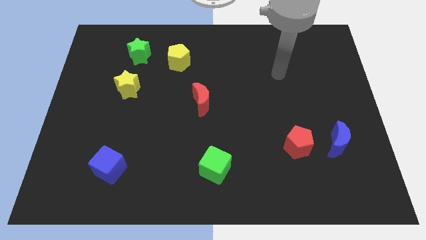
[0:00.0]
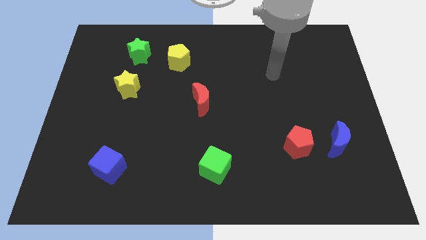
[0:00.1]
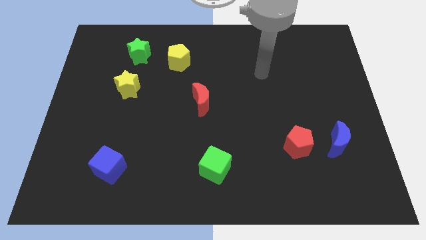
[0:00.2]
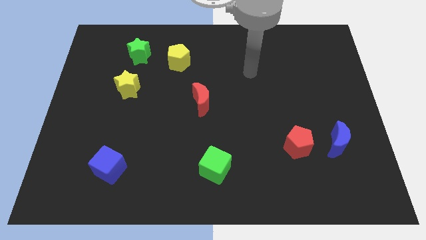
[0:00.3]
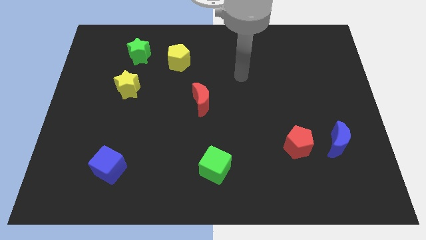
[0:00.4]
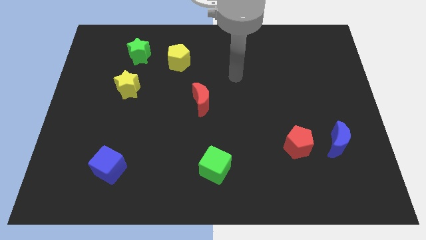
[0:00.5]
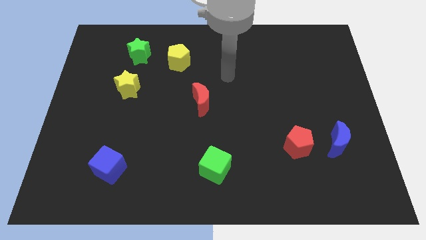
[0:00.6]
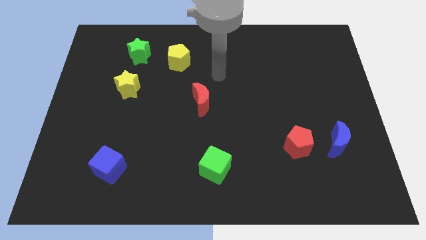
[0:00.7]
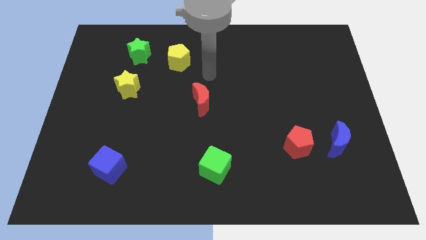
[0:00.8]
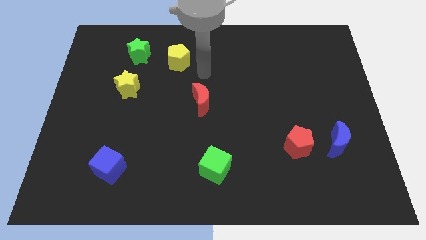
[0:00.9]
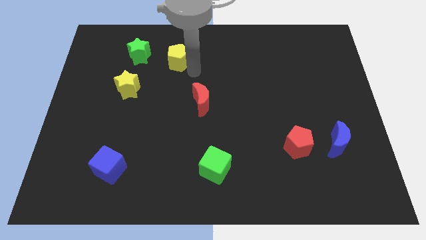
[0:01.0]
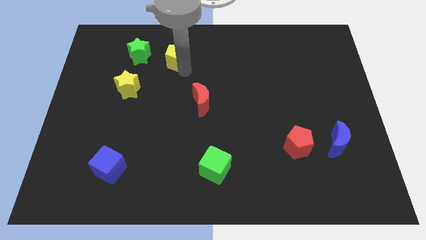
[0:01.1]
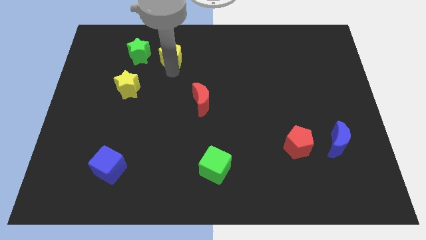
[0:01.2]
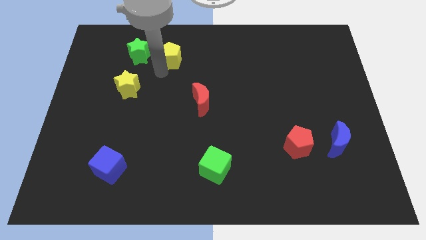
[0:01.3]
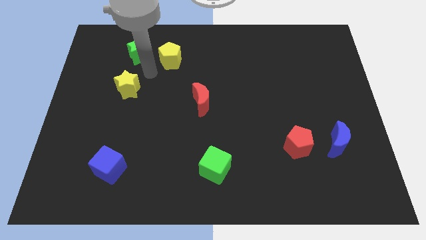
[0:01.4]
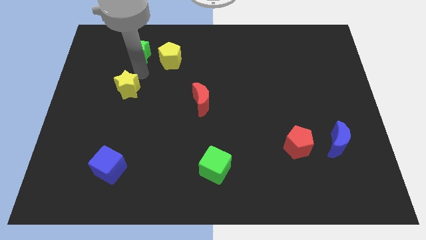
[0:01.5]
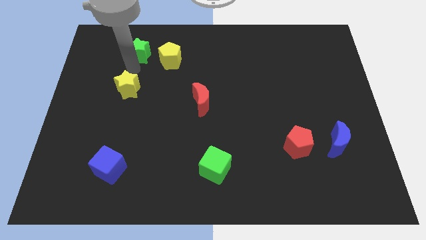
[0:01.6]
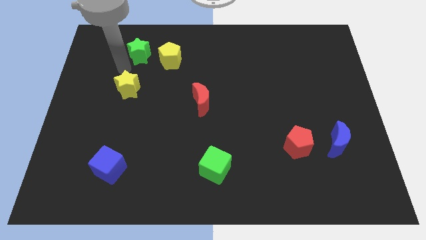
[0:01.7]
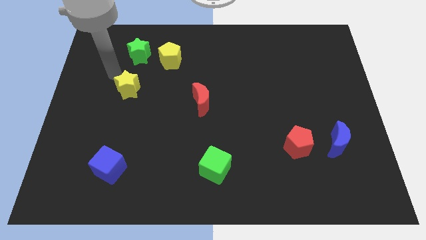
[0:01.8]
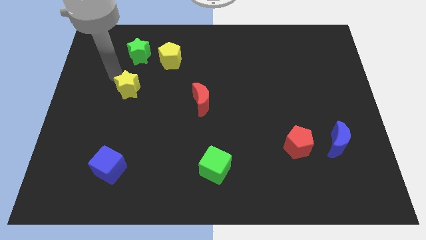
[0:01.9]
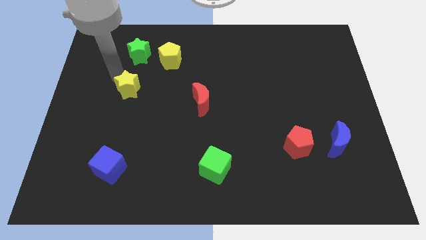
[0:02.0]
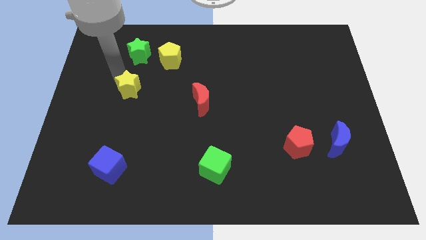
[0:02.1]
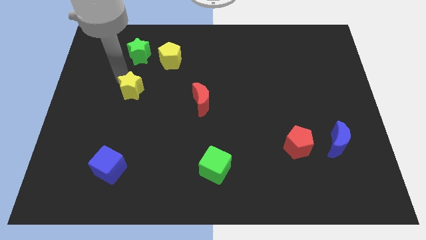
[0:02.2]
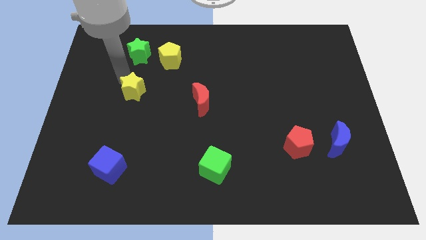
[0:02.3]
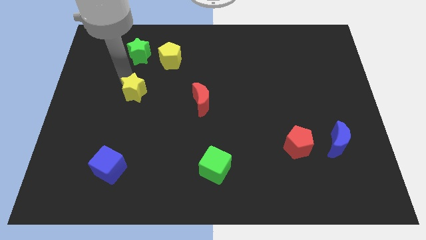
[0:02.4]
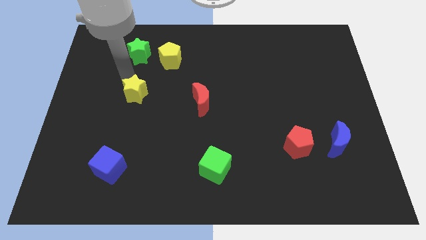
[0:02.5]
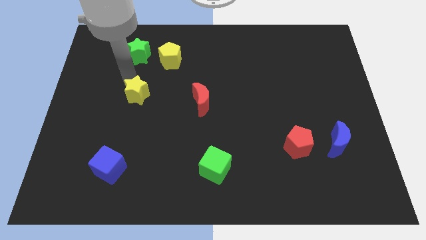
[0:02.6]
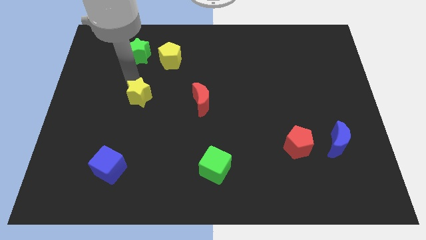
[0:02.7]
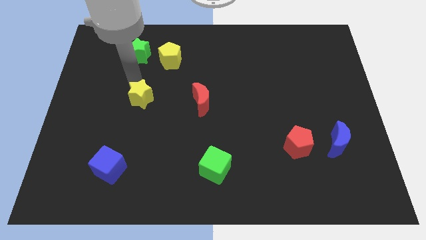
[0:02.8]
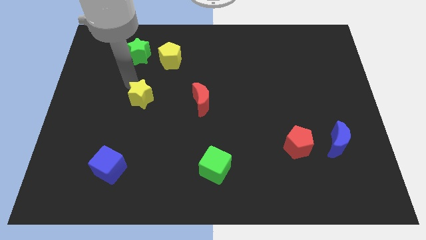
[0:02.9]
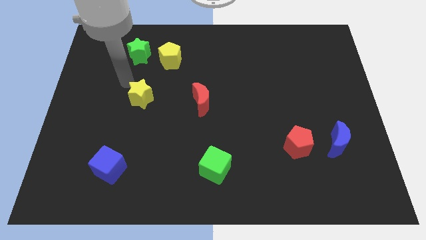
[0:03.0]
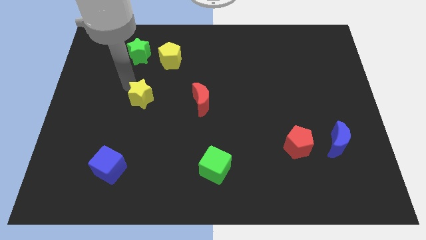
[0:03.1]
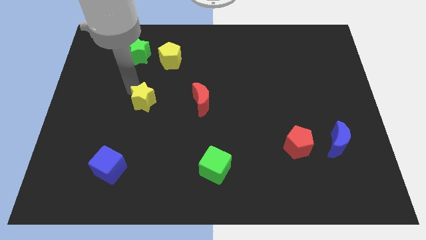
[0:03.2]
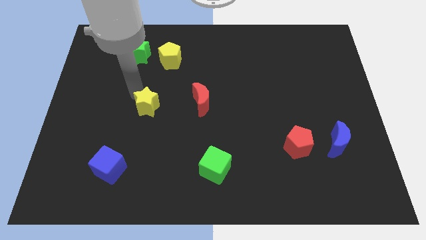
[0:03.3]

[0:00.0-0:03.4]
slightly push the yellow star down and then to the right

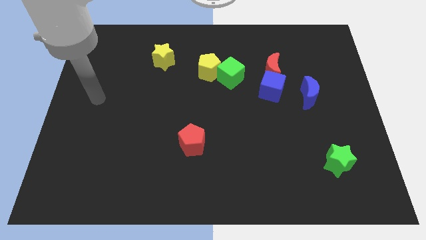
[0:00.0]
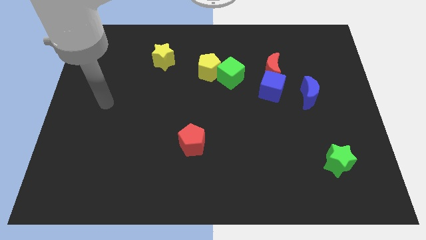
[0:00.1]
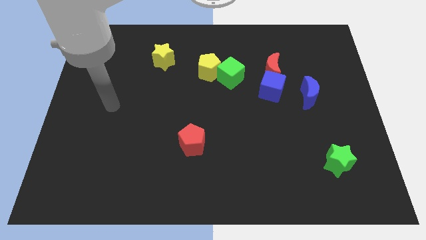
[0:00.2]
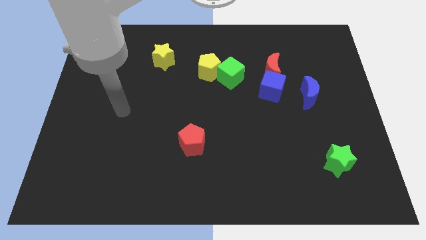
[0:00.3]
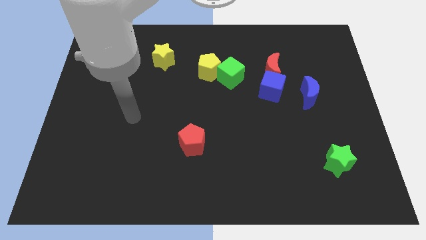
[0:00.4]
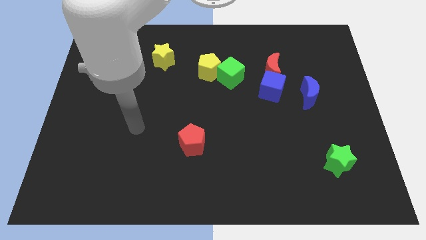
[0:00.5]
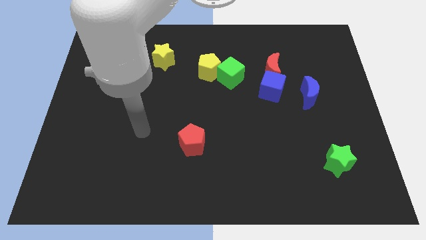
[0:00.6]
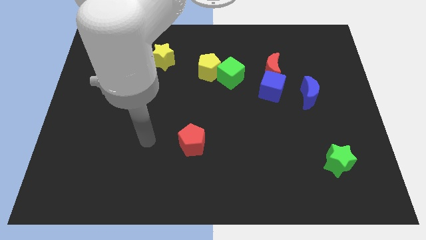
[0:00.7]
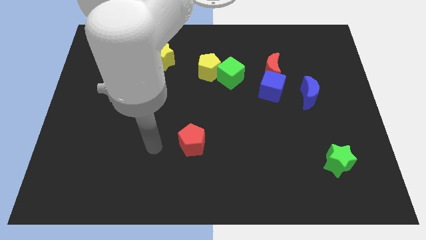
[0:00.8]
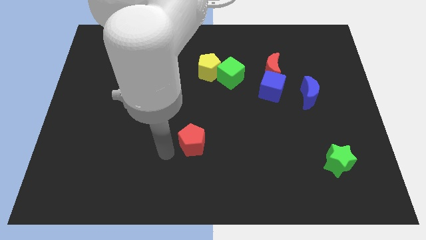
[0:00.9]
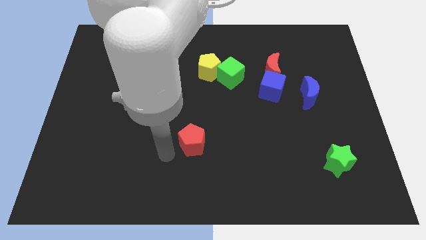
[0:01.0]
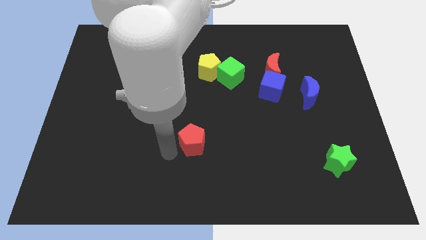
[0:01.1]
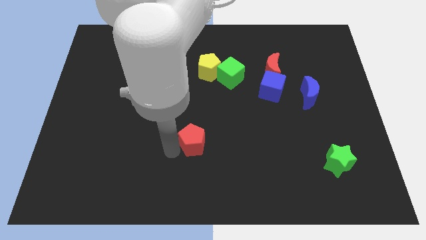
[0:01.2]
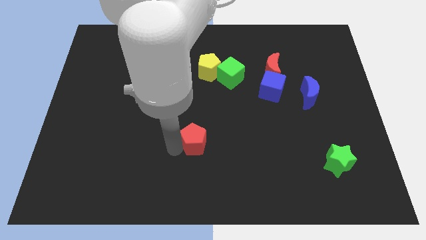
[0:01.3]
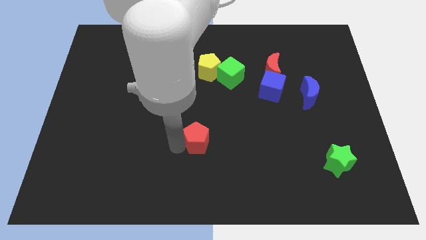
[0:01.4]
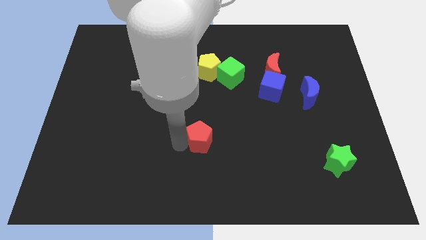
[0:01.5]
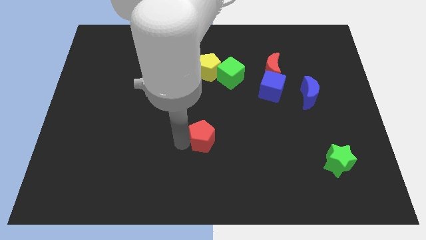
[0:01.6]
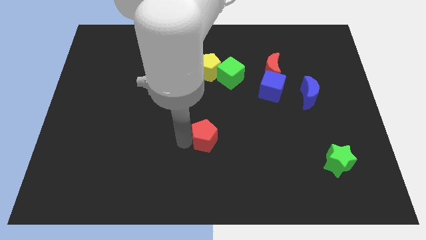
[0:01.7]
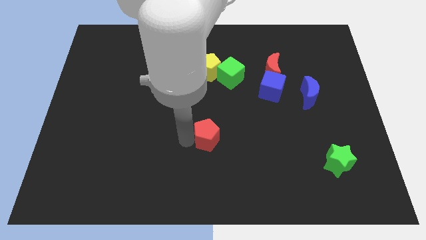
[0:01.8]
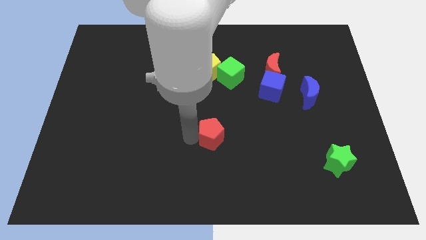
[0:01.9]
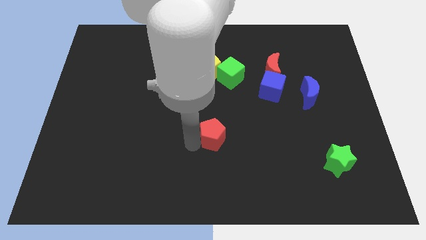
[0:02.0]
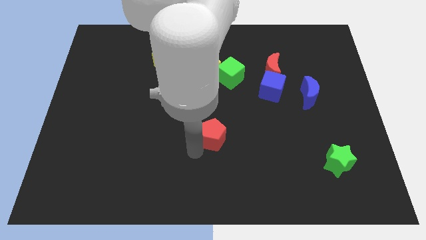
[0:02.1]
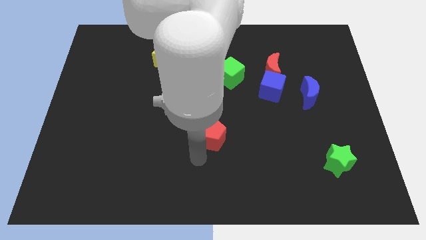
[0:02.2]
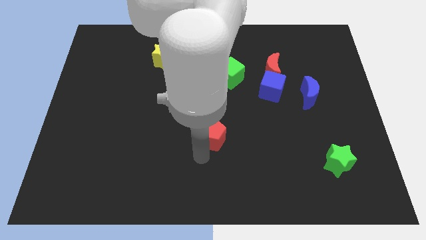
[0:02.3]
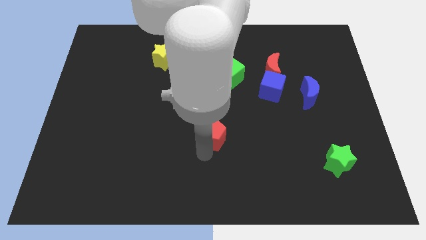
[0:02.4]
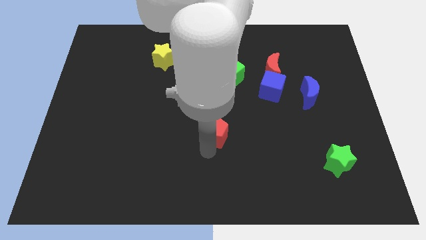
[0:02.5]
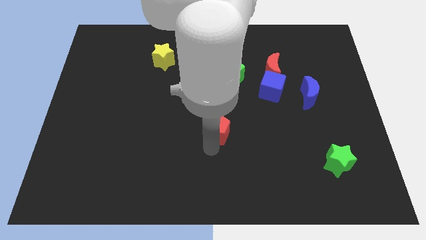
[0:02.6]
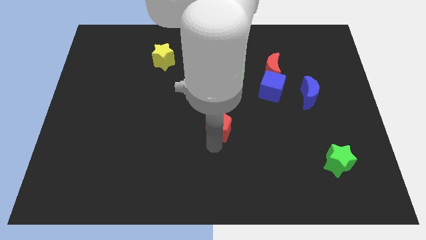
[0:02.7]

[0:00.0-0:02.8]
move the red pentagon up and right diagonally a little bit

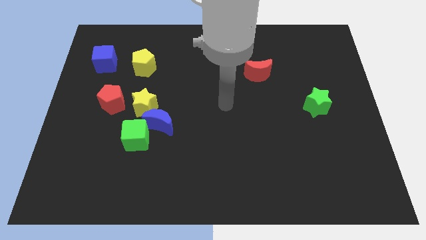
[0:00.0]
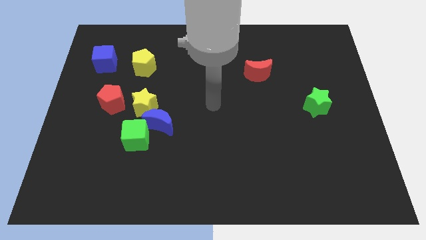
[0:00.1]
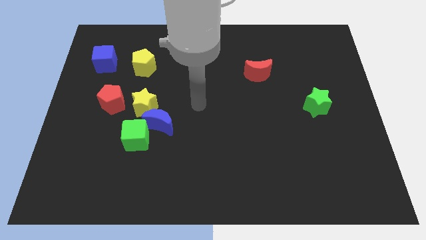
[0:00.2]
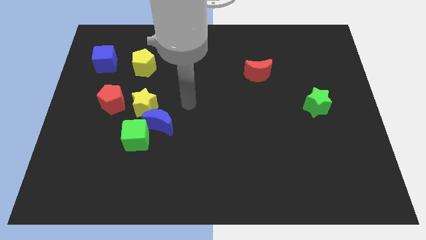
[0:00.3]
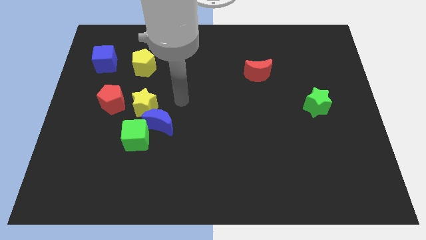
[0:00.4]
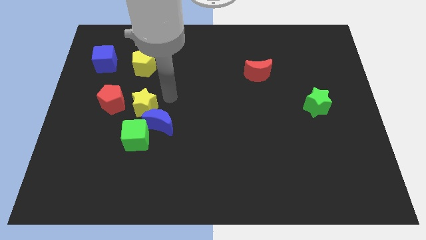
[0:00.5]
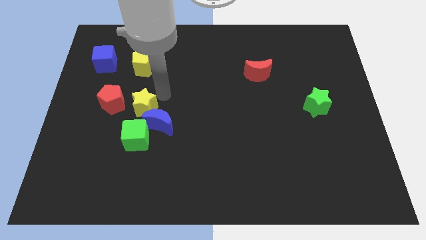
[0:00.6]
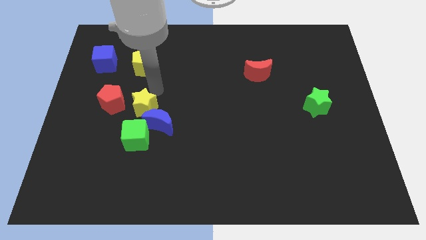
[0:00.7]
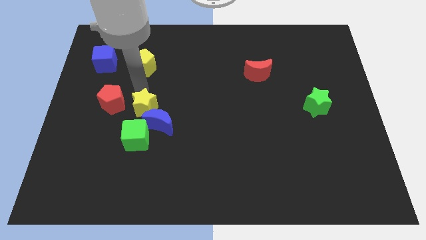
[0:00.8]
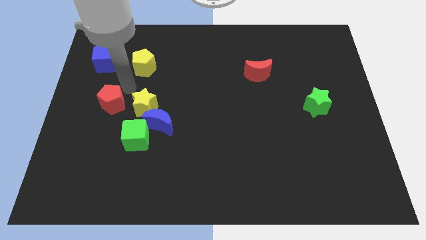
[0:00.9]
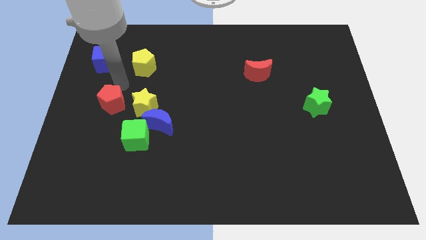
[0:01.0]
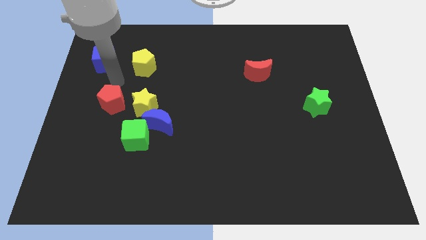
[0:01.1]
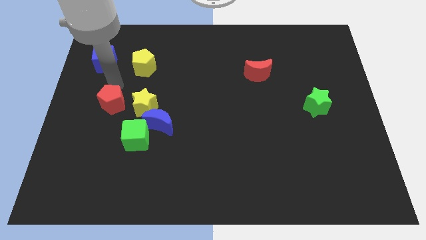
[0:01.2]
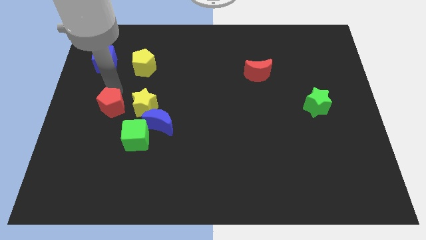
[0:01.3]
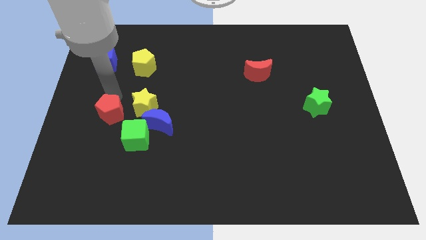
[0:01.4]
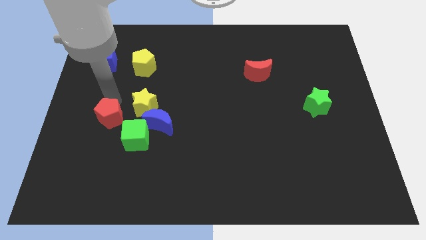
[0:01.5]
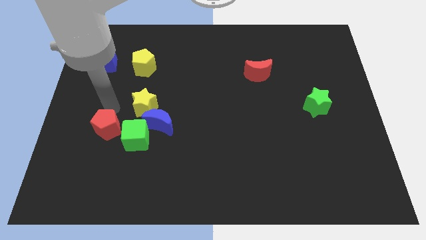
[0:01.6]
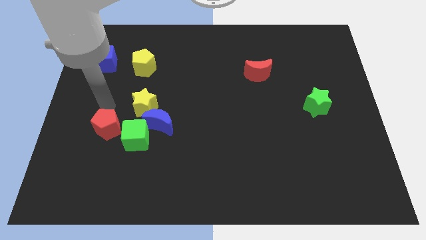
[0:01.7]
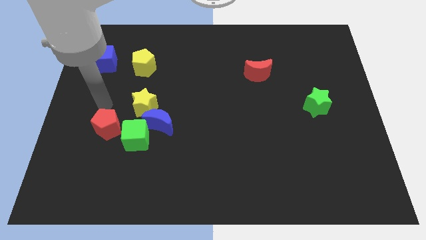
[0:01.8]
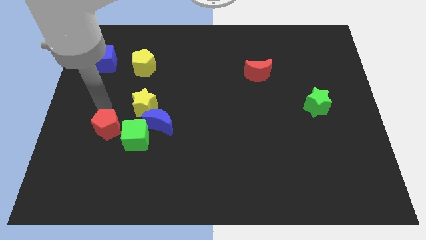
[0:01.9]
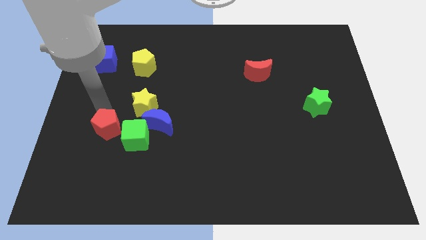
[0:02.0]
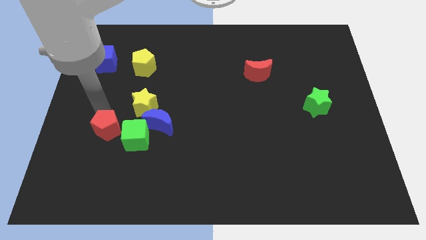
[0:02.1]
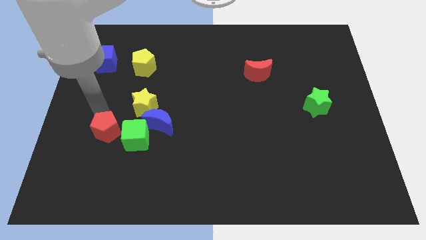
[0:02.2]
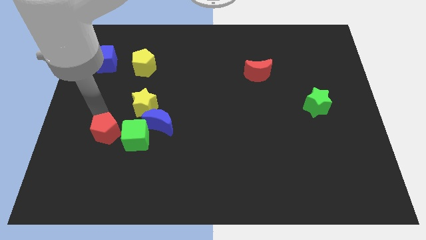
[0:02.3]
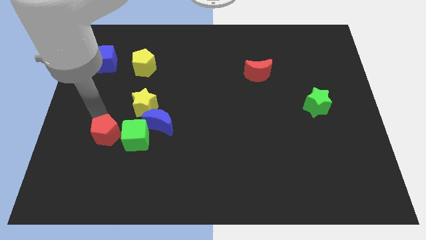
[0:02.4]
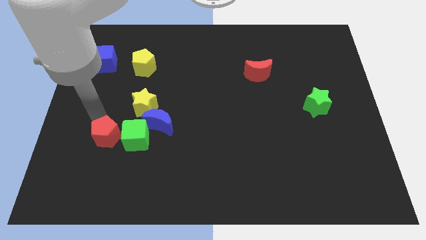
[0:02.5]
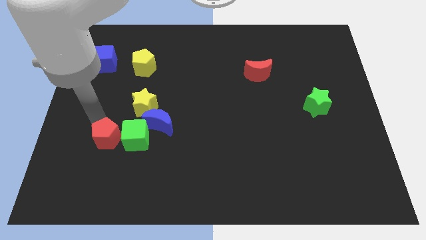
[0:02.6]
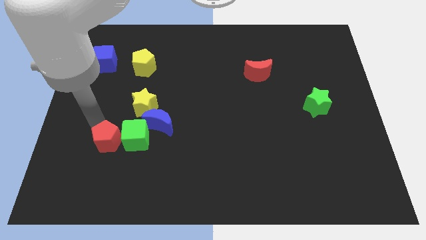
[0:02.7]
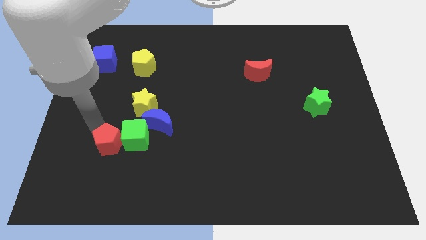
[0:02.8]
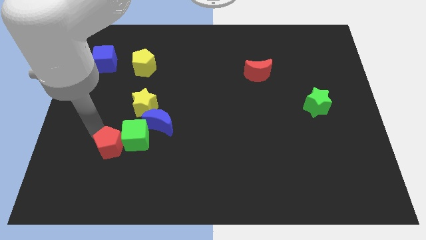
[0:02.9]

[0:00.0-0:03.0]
move the red pentagon downwards and right a bit
